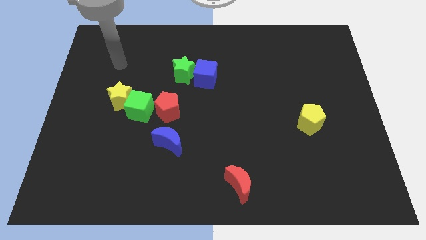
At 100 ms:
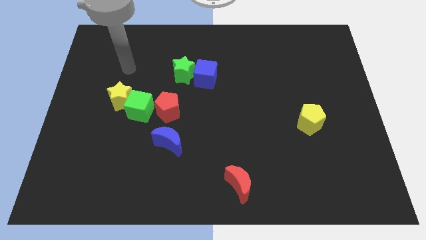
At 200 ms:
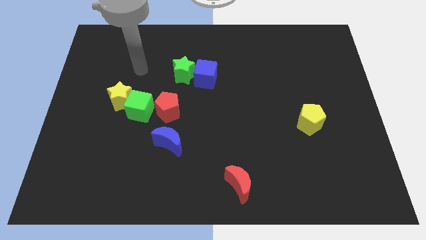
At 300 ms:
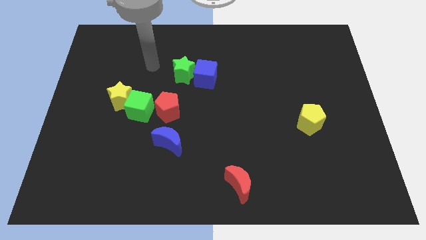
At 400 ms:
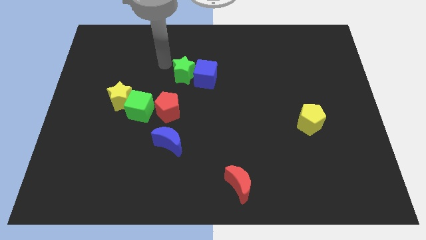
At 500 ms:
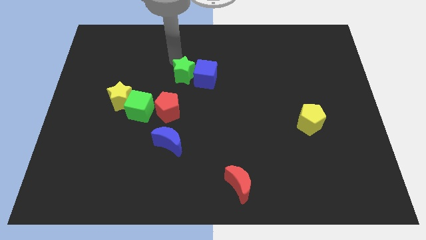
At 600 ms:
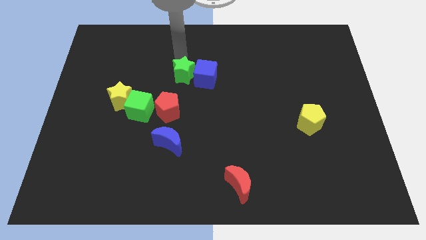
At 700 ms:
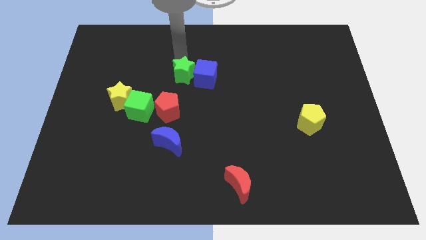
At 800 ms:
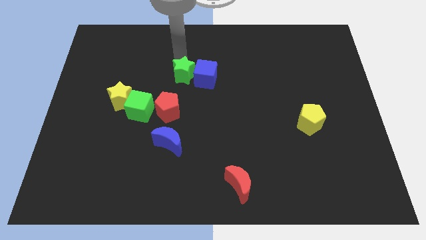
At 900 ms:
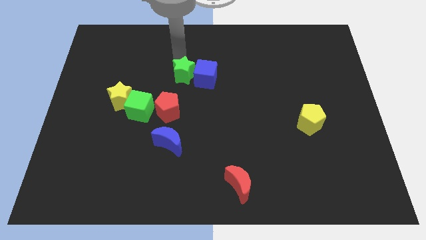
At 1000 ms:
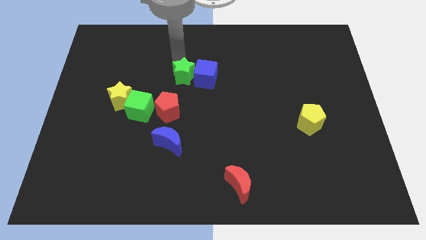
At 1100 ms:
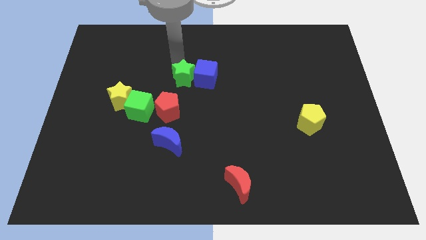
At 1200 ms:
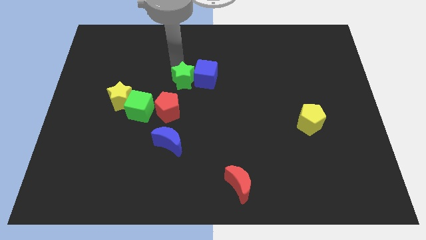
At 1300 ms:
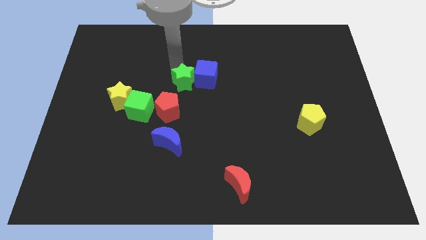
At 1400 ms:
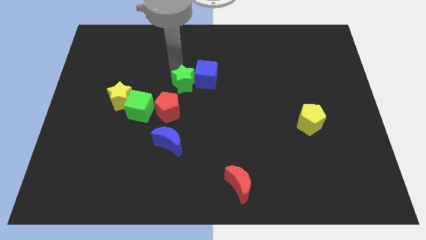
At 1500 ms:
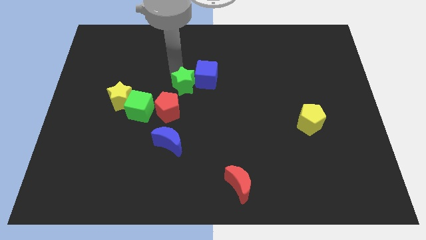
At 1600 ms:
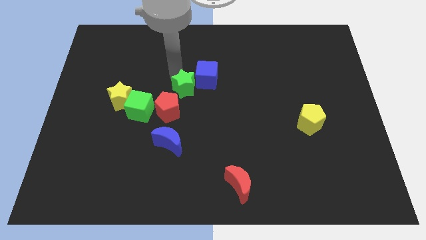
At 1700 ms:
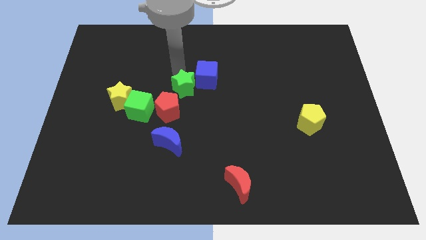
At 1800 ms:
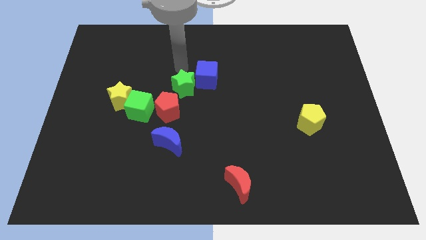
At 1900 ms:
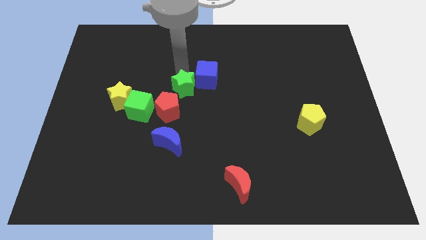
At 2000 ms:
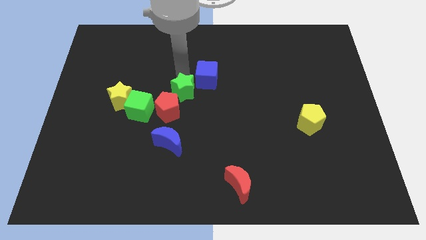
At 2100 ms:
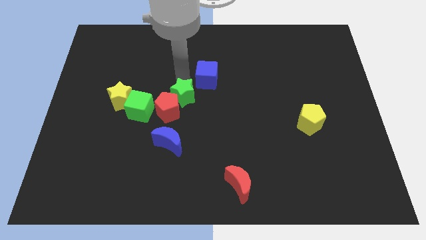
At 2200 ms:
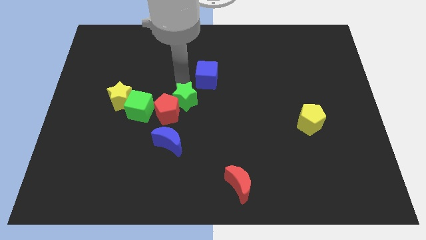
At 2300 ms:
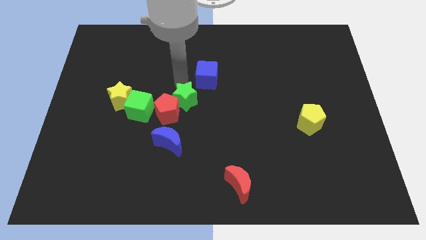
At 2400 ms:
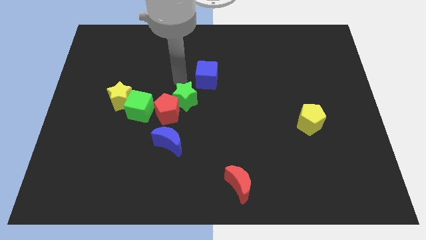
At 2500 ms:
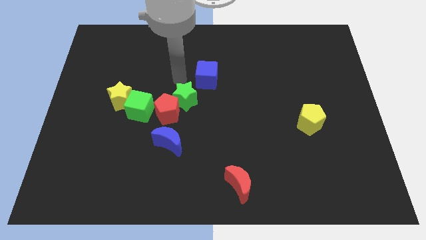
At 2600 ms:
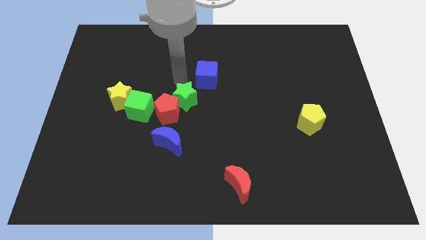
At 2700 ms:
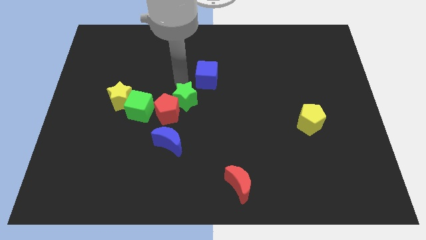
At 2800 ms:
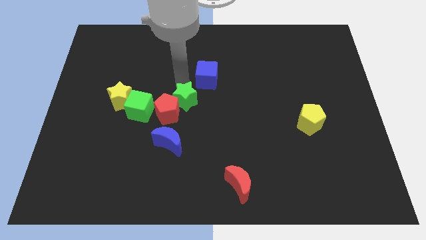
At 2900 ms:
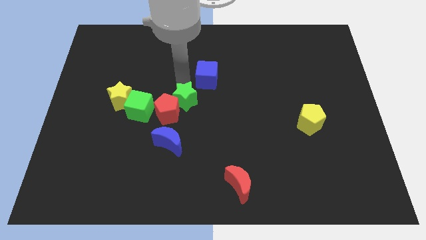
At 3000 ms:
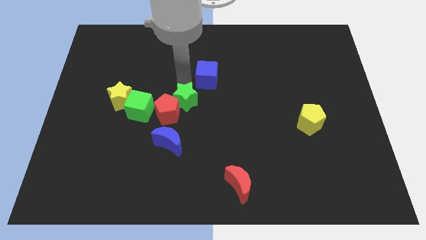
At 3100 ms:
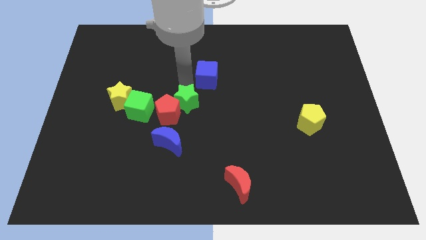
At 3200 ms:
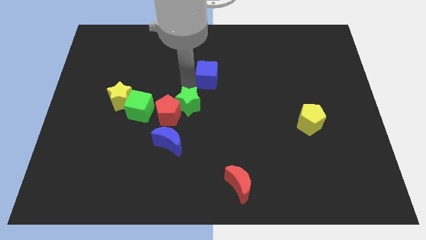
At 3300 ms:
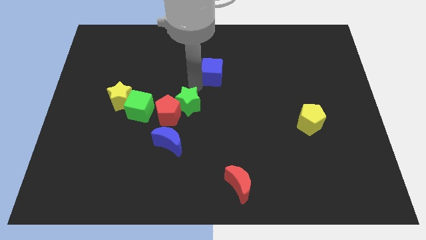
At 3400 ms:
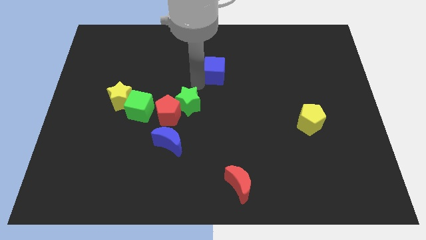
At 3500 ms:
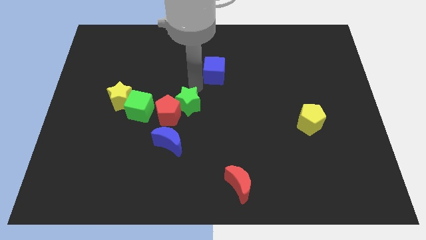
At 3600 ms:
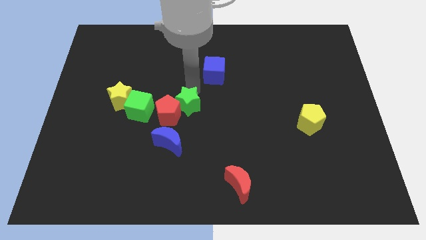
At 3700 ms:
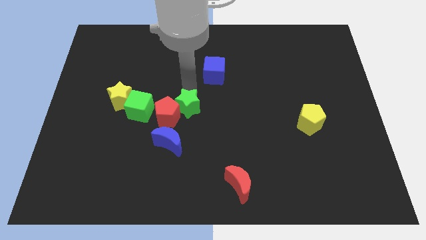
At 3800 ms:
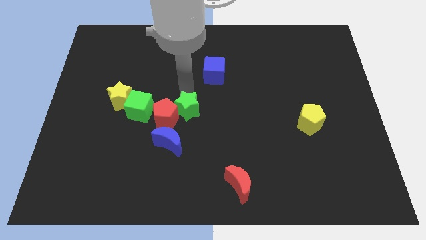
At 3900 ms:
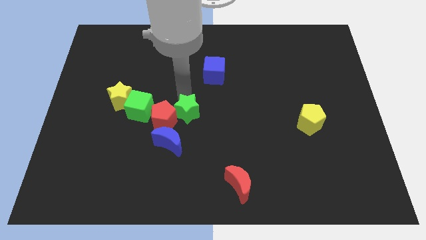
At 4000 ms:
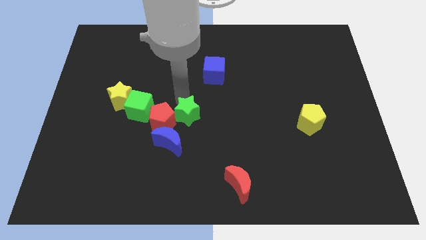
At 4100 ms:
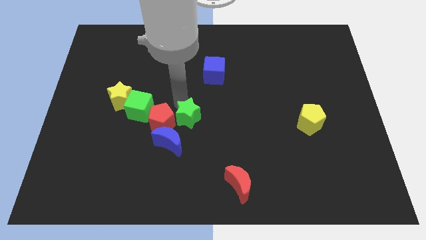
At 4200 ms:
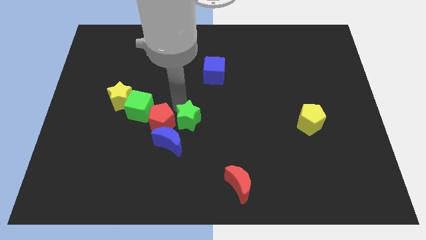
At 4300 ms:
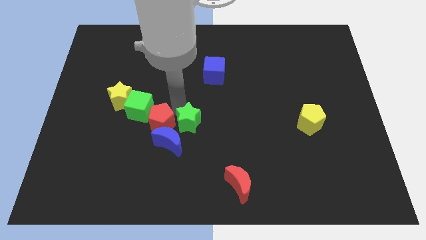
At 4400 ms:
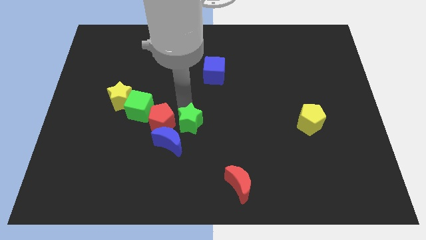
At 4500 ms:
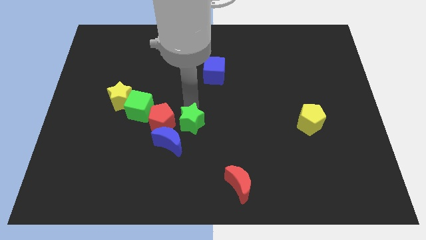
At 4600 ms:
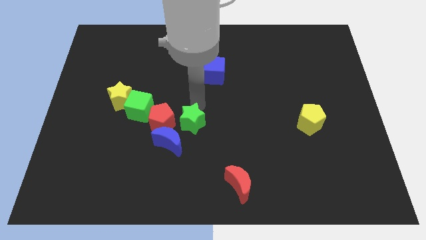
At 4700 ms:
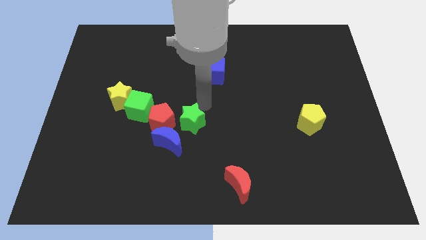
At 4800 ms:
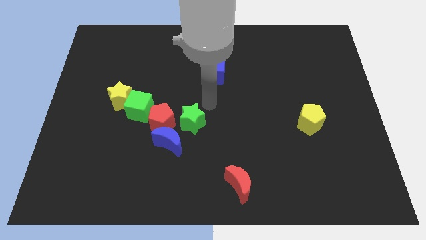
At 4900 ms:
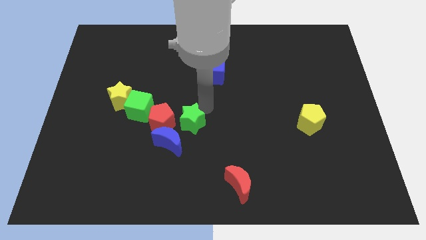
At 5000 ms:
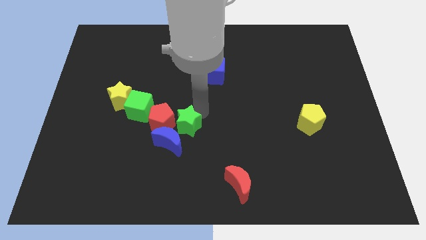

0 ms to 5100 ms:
put the green star towards the blue moon

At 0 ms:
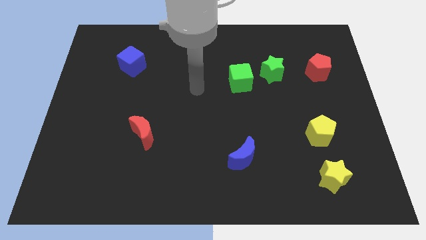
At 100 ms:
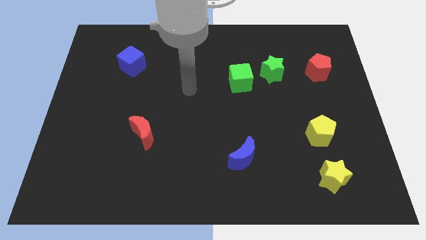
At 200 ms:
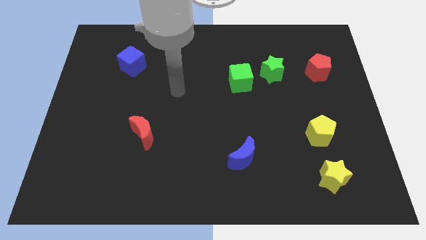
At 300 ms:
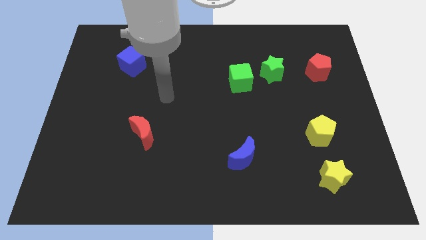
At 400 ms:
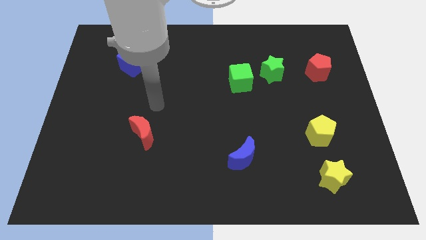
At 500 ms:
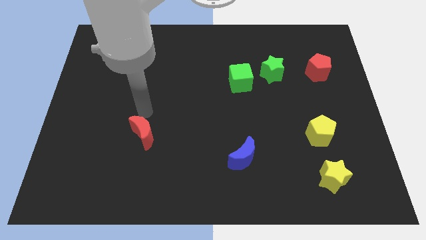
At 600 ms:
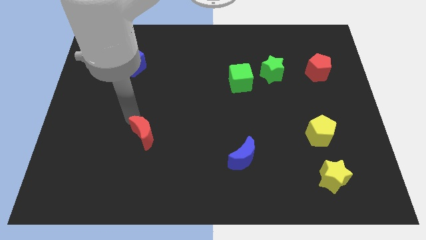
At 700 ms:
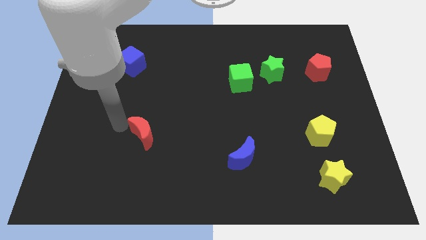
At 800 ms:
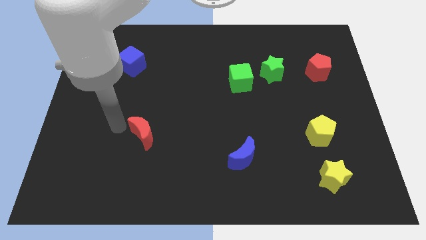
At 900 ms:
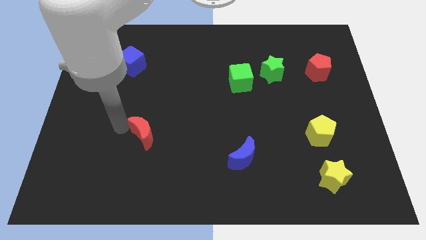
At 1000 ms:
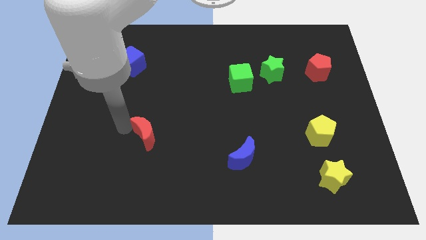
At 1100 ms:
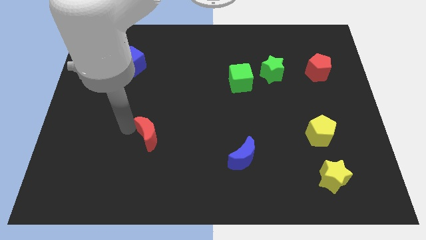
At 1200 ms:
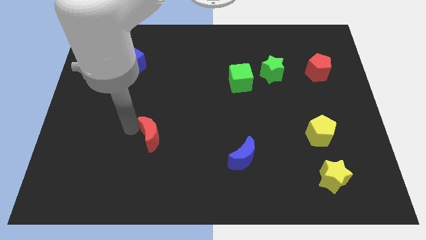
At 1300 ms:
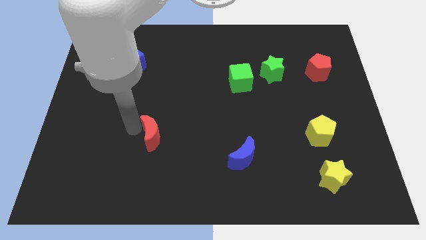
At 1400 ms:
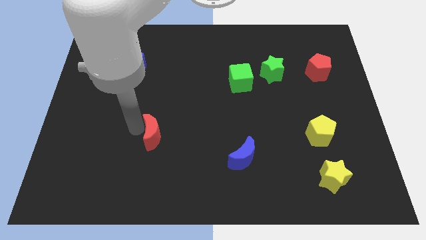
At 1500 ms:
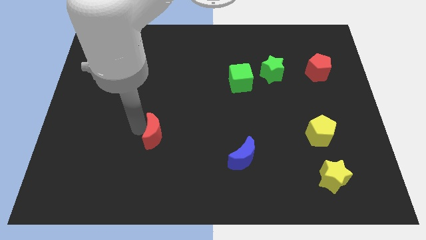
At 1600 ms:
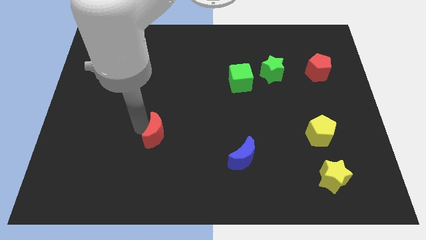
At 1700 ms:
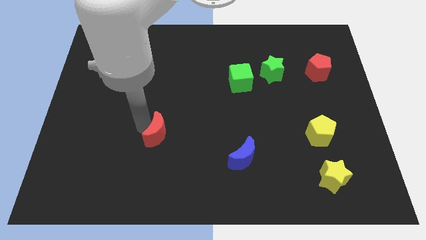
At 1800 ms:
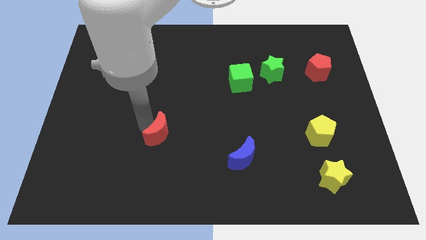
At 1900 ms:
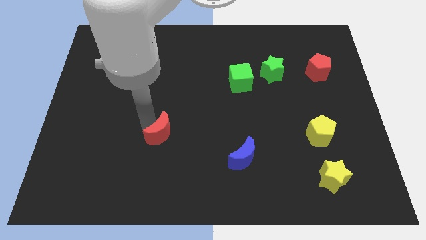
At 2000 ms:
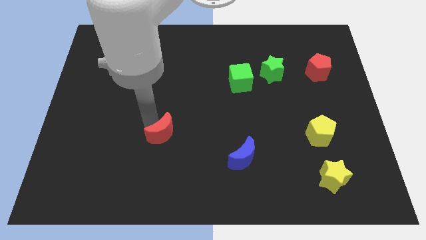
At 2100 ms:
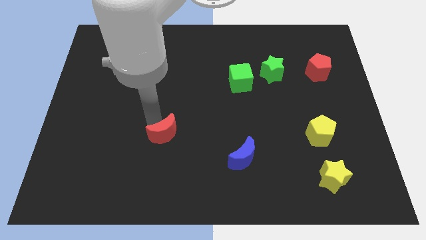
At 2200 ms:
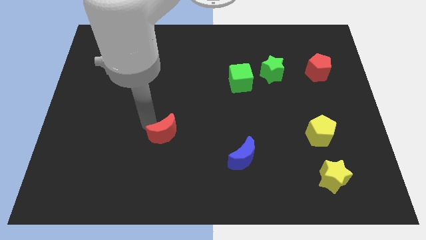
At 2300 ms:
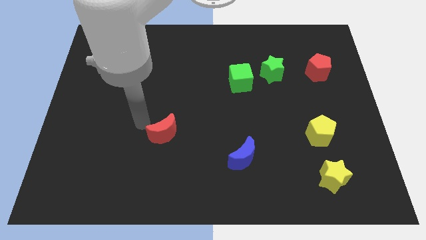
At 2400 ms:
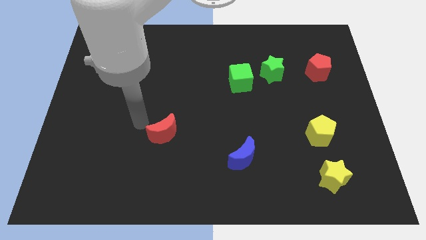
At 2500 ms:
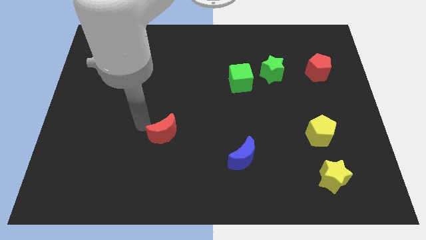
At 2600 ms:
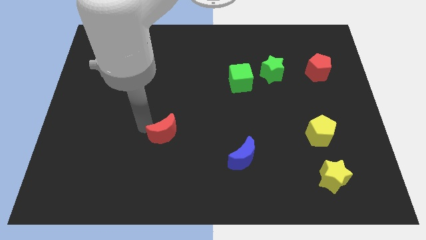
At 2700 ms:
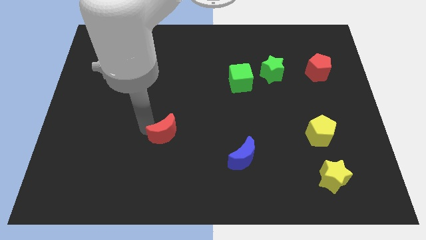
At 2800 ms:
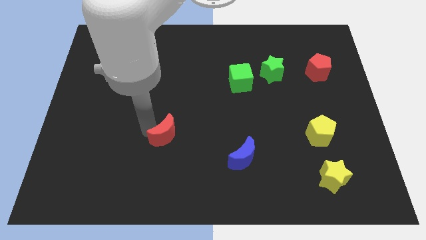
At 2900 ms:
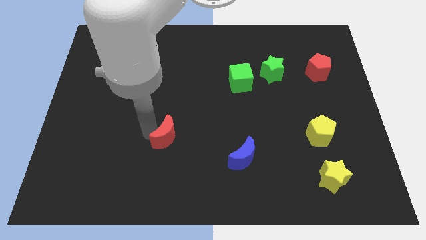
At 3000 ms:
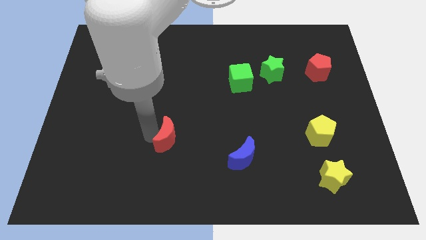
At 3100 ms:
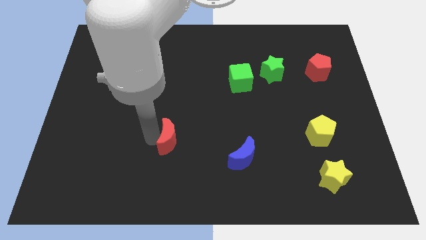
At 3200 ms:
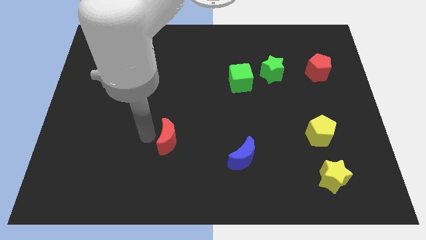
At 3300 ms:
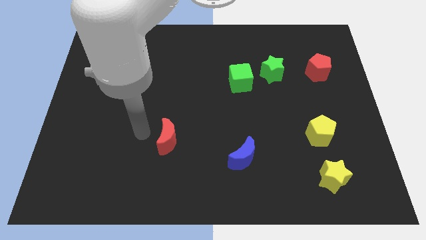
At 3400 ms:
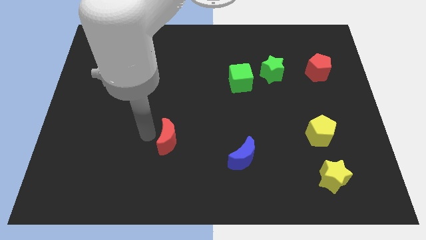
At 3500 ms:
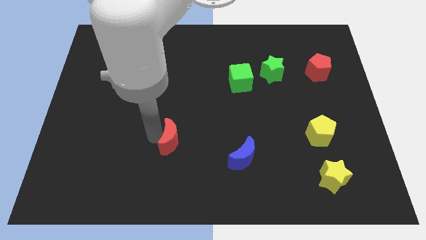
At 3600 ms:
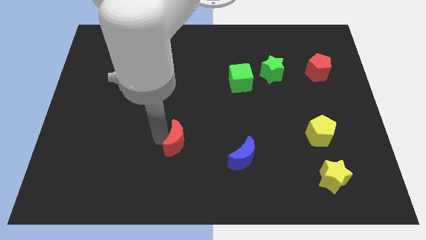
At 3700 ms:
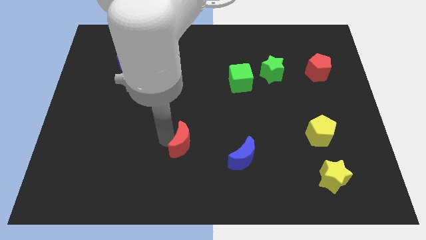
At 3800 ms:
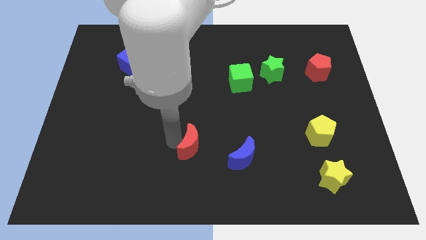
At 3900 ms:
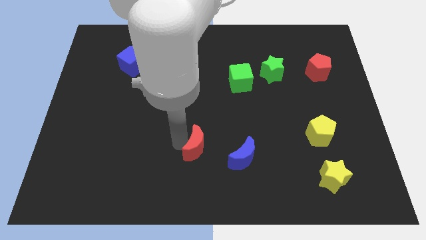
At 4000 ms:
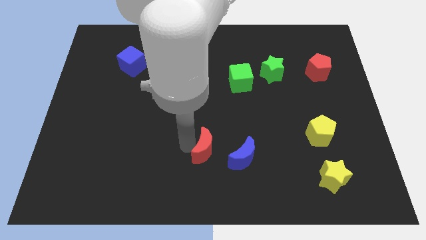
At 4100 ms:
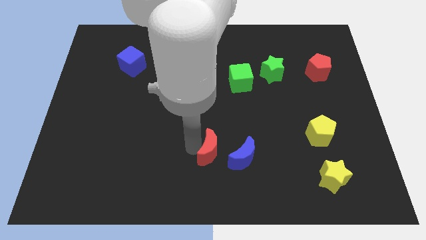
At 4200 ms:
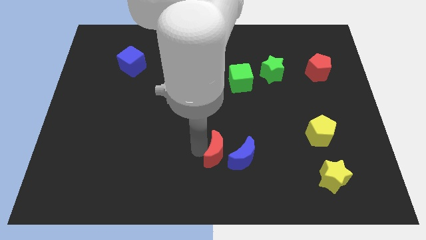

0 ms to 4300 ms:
put the red moon to the blue moon
